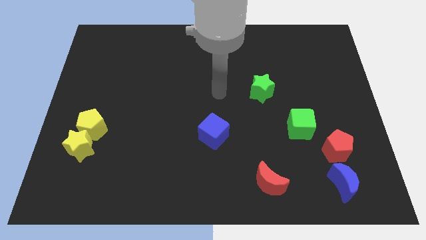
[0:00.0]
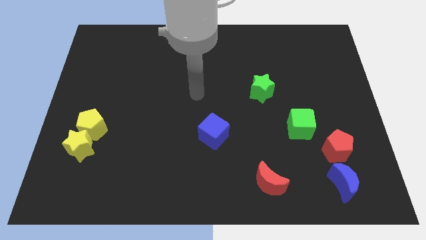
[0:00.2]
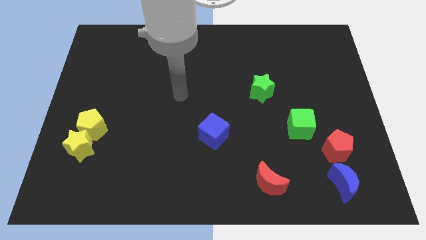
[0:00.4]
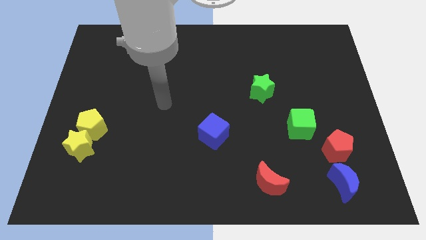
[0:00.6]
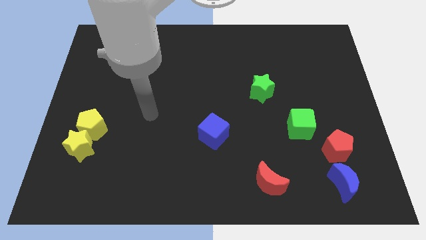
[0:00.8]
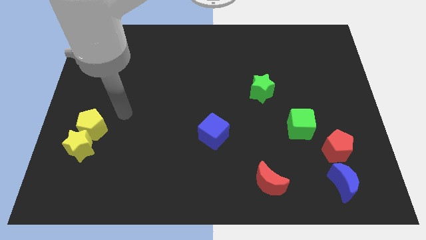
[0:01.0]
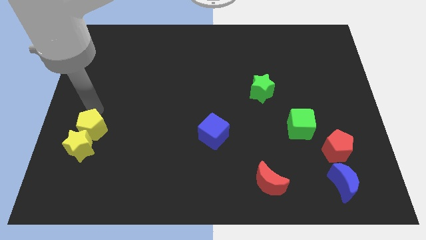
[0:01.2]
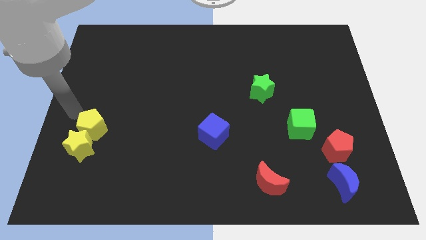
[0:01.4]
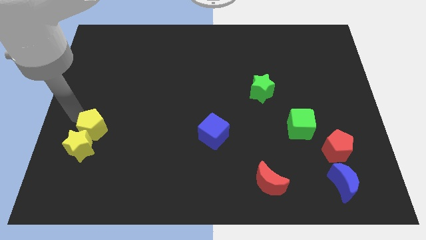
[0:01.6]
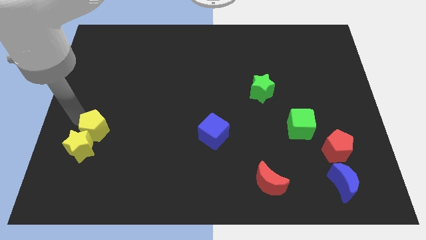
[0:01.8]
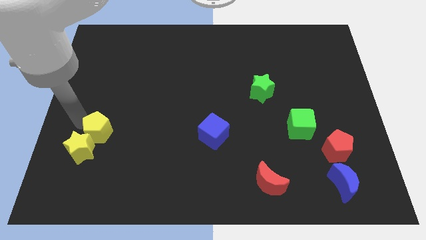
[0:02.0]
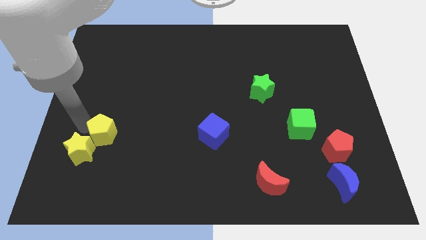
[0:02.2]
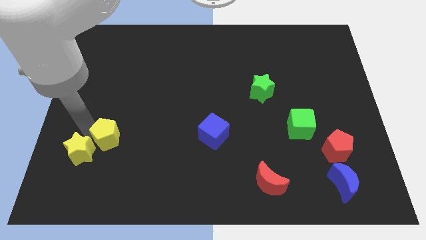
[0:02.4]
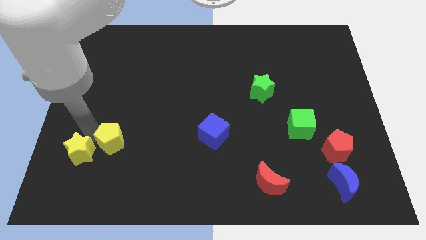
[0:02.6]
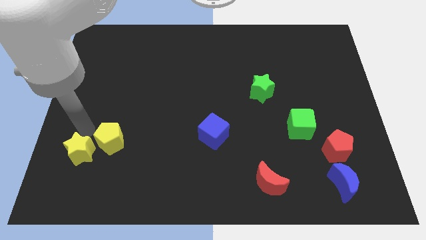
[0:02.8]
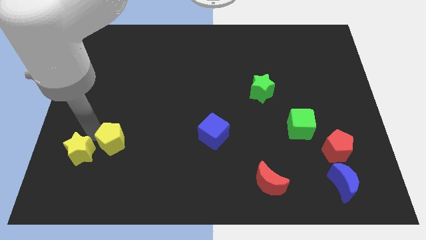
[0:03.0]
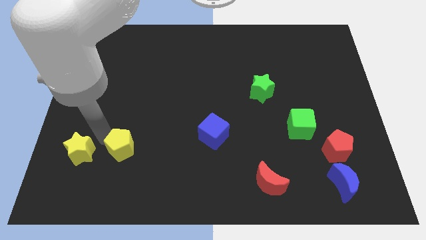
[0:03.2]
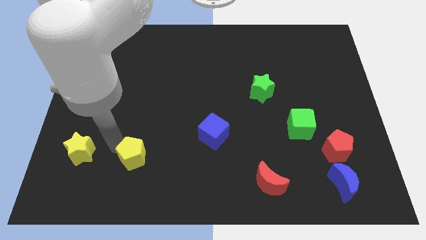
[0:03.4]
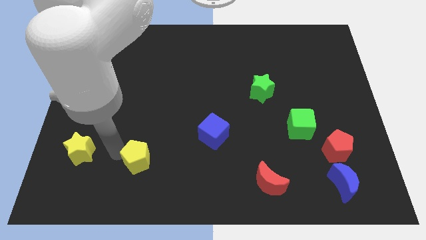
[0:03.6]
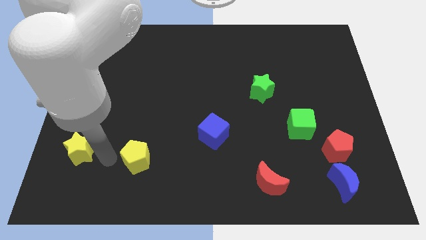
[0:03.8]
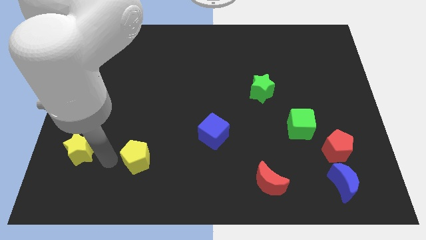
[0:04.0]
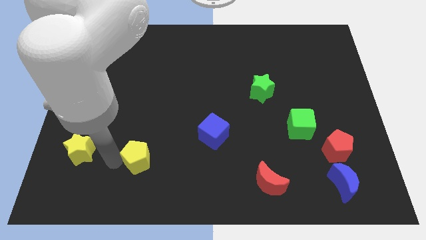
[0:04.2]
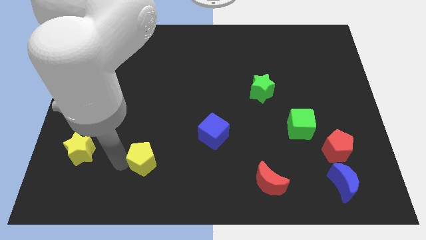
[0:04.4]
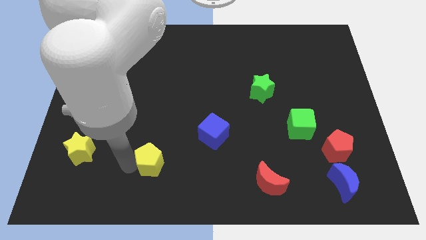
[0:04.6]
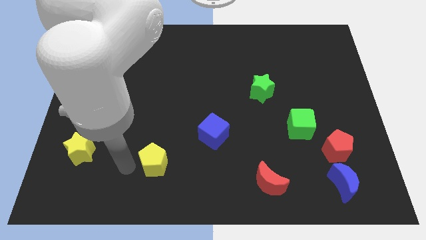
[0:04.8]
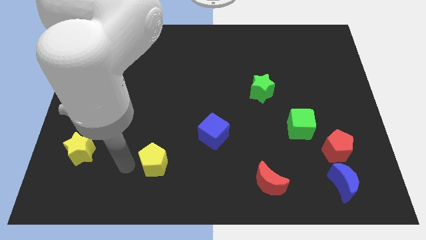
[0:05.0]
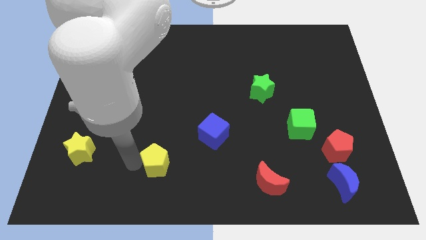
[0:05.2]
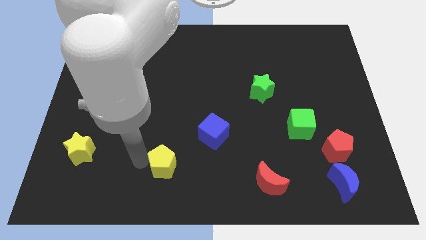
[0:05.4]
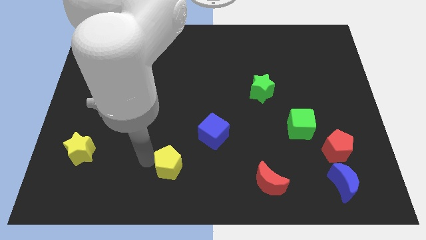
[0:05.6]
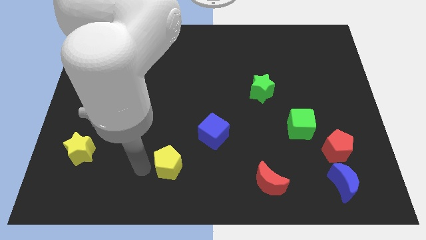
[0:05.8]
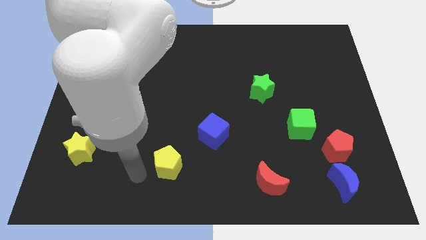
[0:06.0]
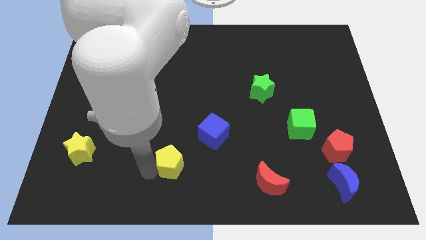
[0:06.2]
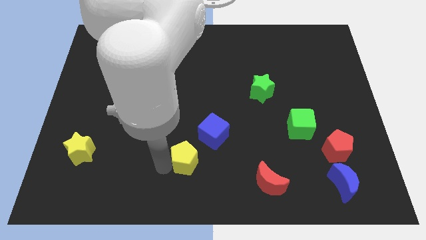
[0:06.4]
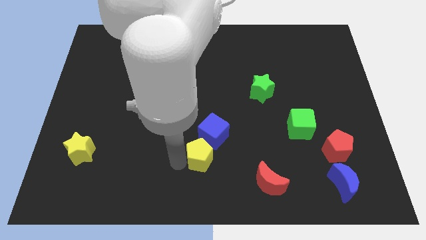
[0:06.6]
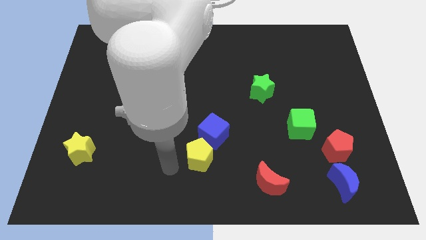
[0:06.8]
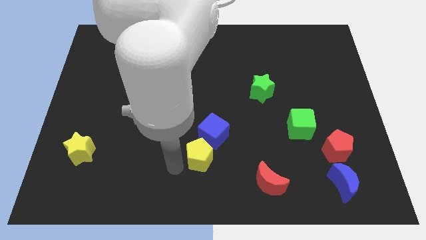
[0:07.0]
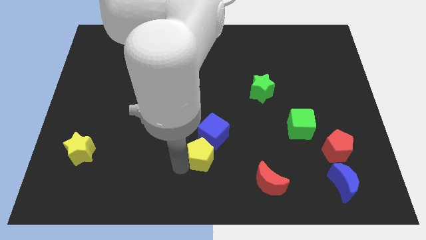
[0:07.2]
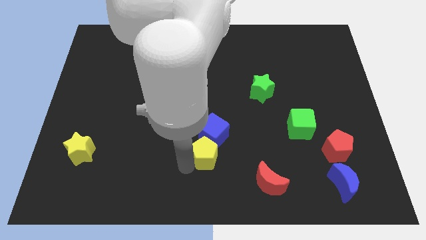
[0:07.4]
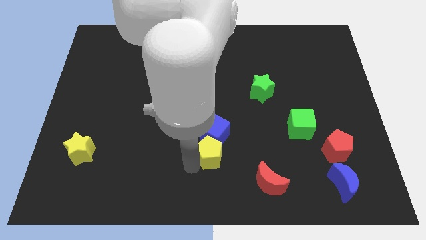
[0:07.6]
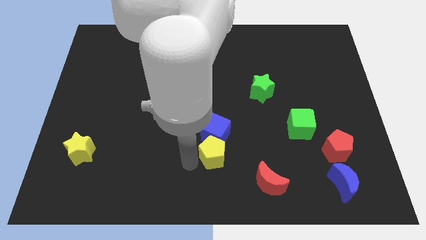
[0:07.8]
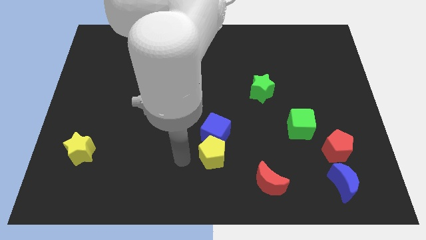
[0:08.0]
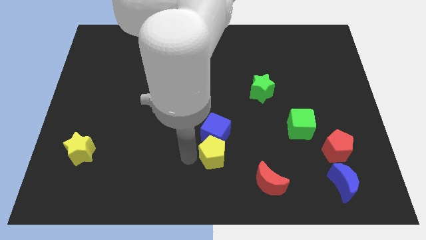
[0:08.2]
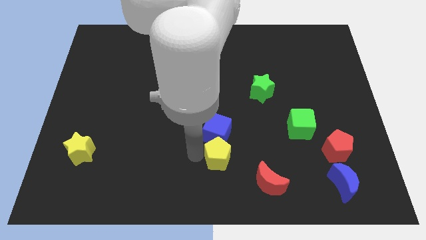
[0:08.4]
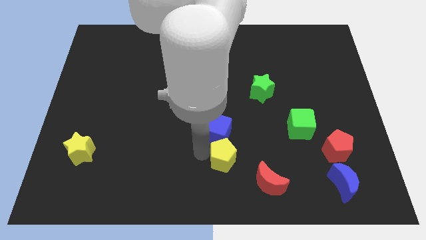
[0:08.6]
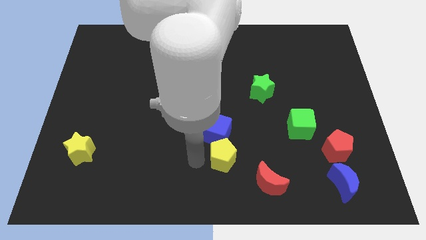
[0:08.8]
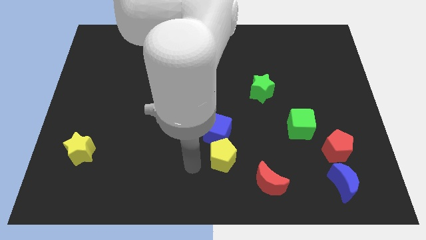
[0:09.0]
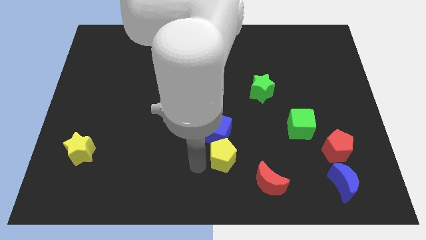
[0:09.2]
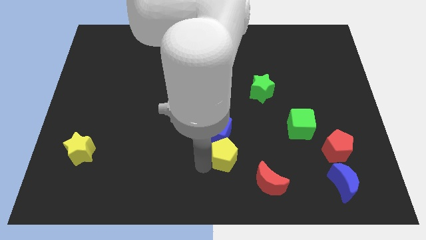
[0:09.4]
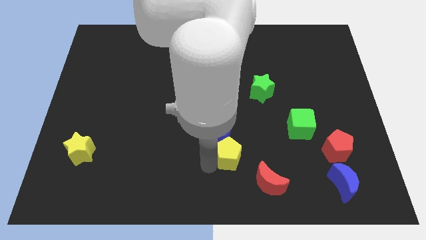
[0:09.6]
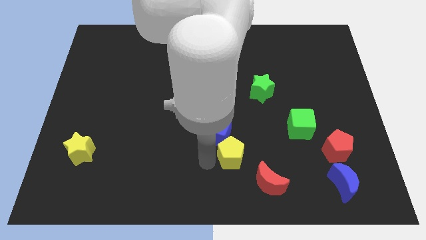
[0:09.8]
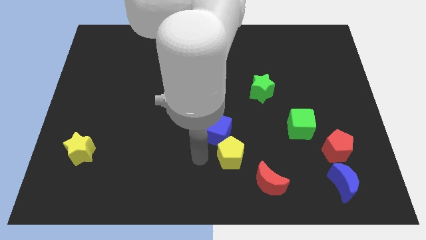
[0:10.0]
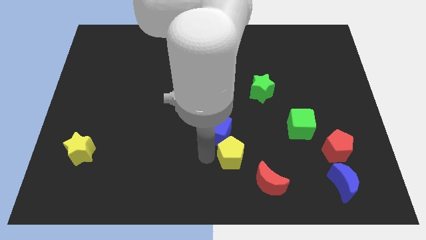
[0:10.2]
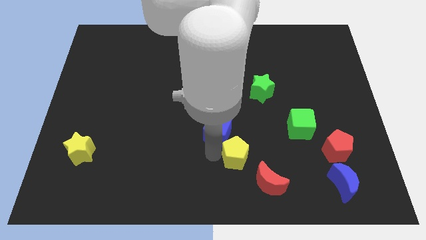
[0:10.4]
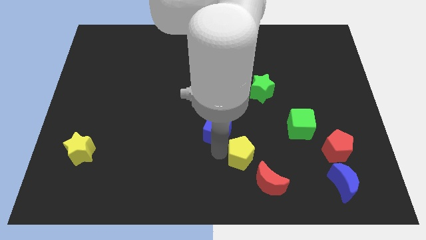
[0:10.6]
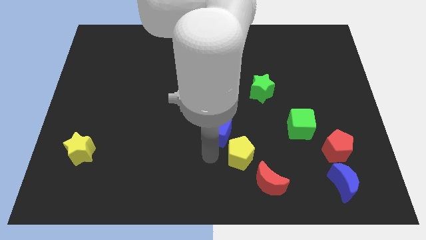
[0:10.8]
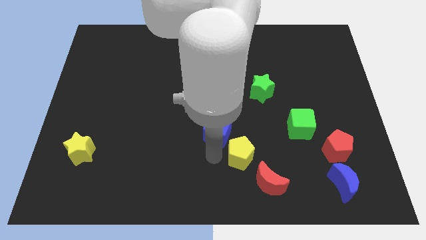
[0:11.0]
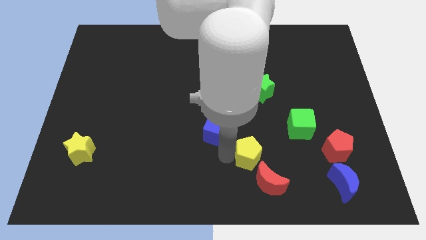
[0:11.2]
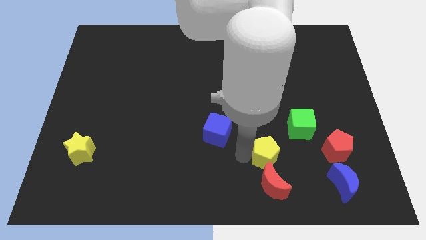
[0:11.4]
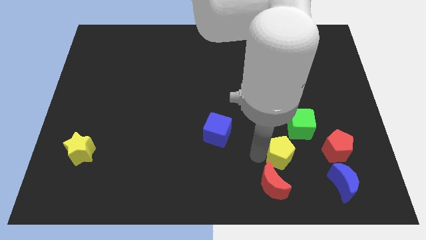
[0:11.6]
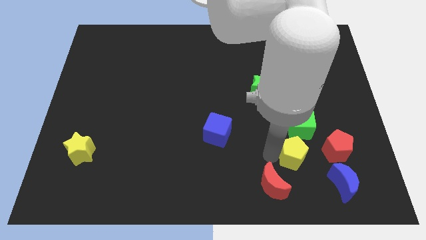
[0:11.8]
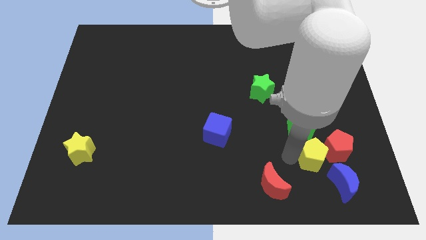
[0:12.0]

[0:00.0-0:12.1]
push the yellow pentagon close to the red pentagon

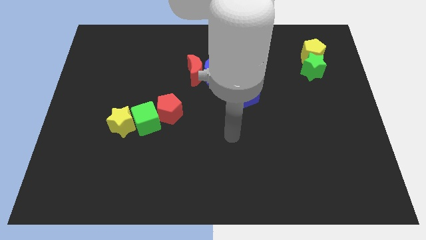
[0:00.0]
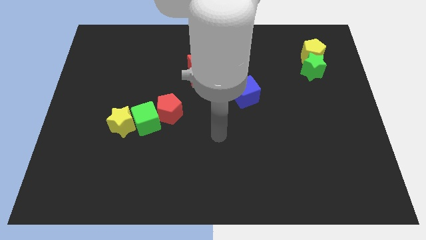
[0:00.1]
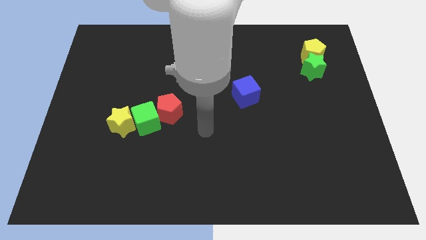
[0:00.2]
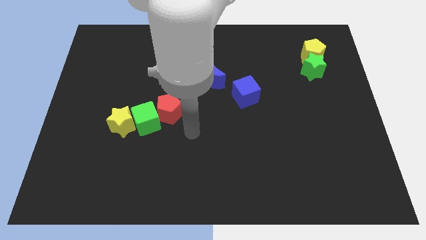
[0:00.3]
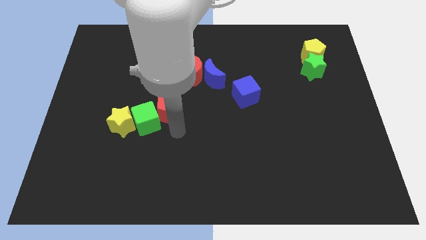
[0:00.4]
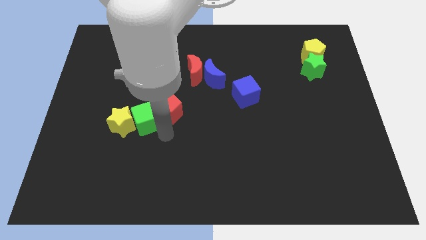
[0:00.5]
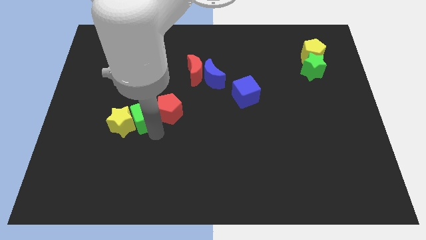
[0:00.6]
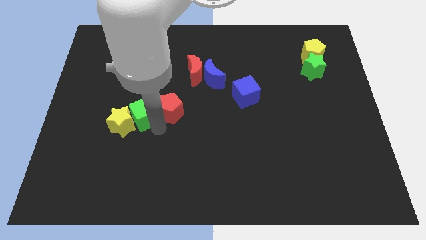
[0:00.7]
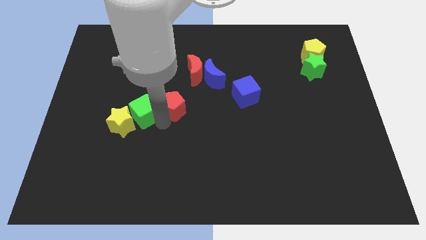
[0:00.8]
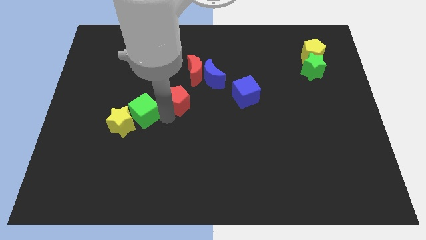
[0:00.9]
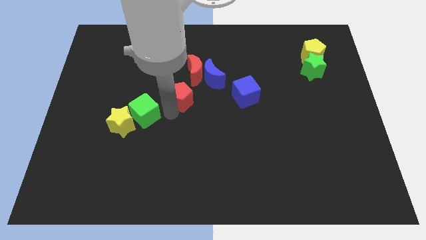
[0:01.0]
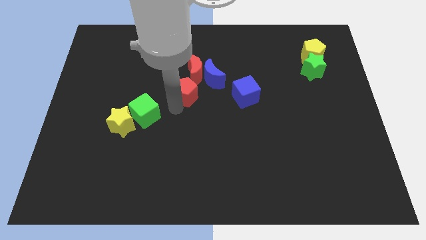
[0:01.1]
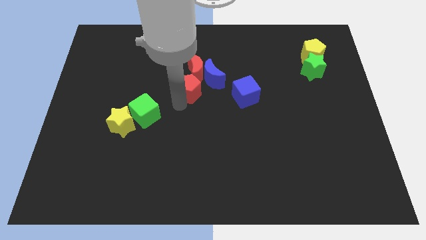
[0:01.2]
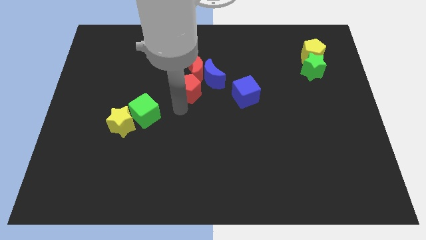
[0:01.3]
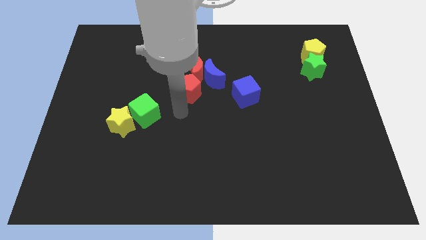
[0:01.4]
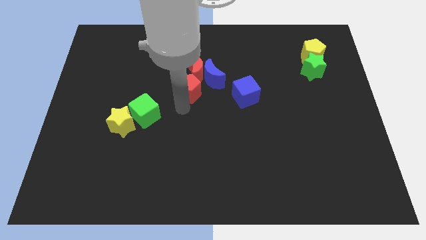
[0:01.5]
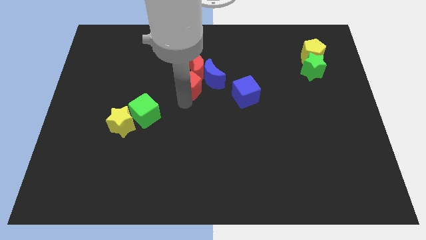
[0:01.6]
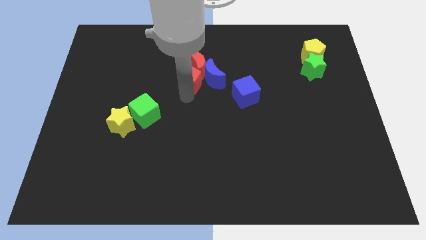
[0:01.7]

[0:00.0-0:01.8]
put the red pentagon towards the red moon
